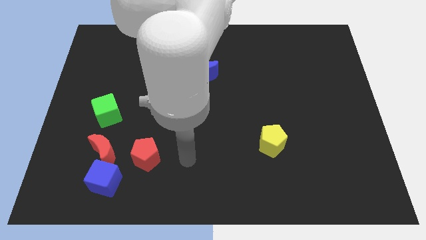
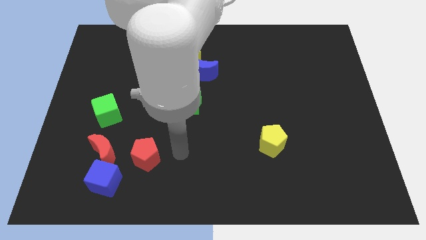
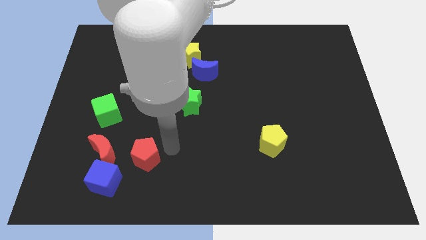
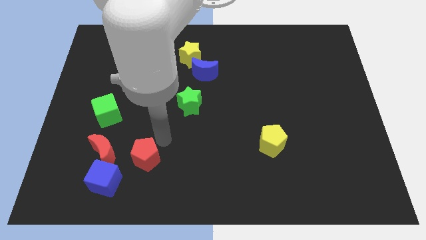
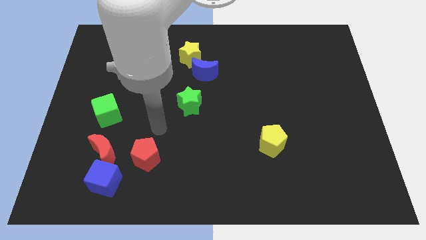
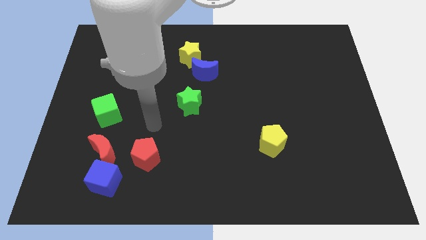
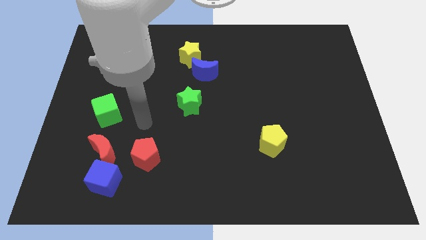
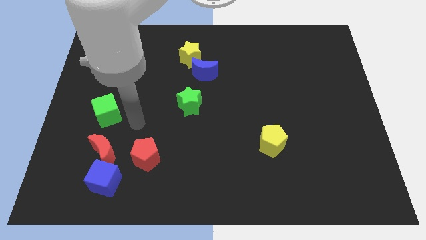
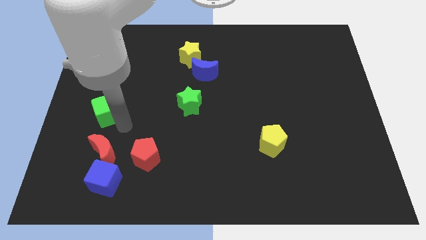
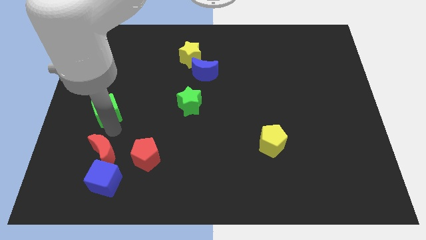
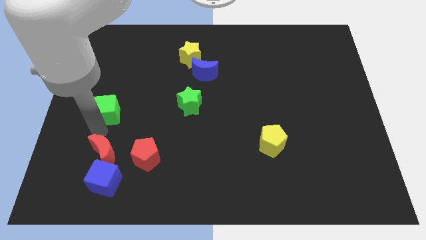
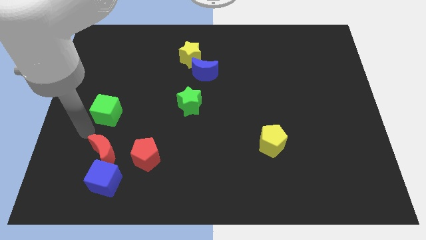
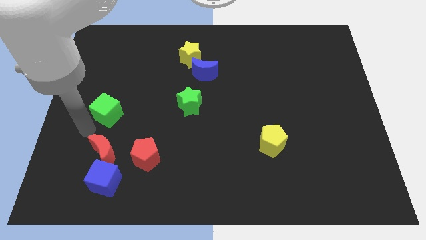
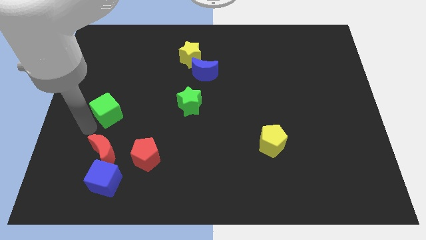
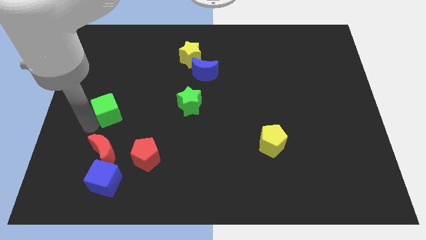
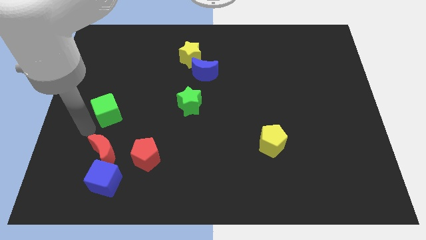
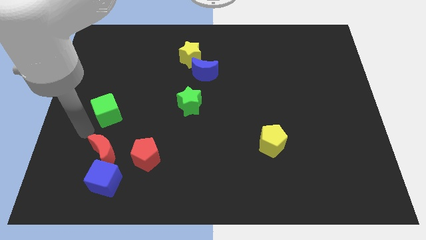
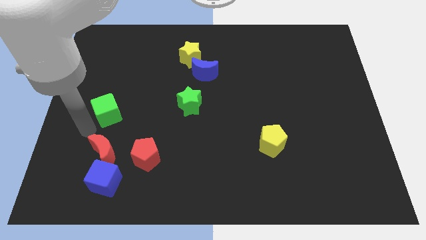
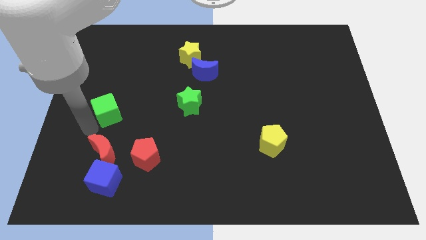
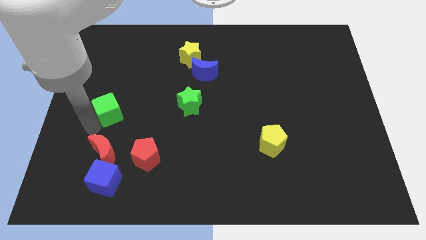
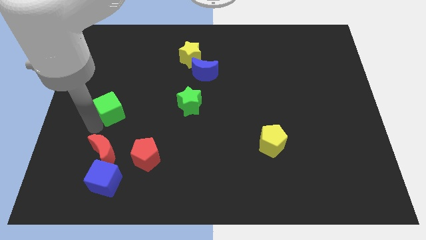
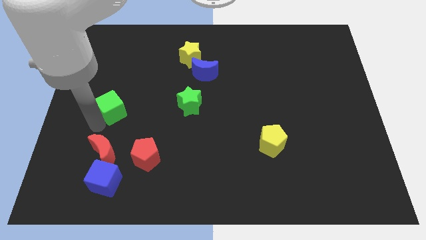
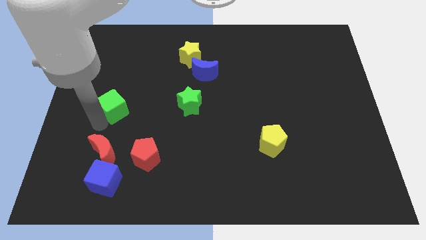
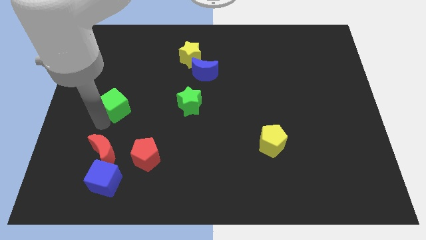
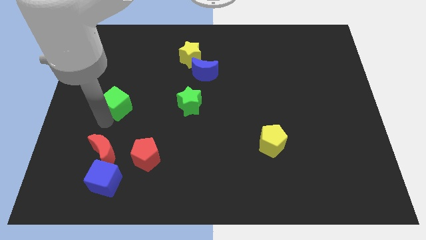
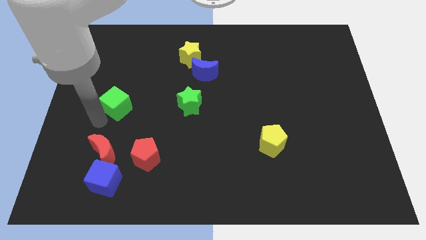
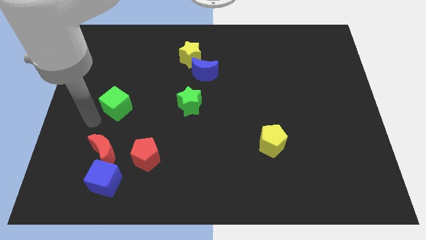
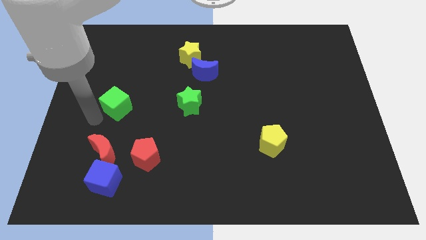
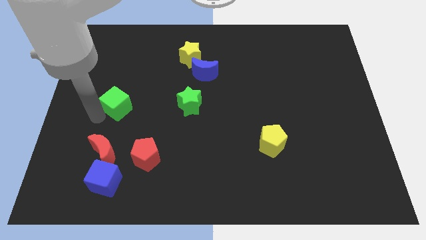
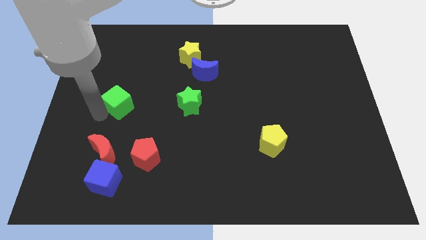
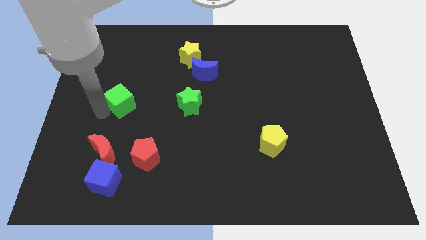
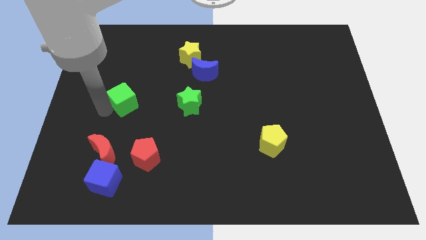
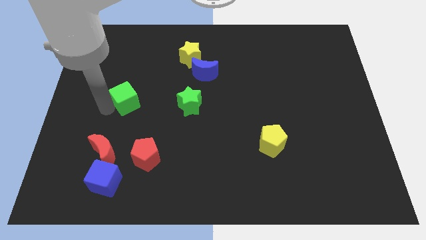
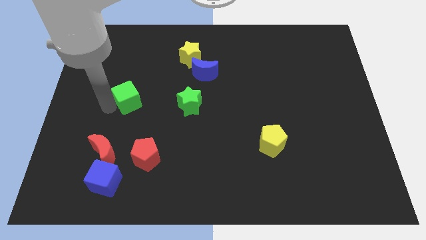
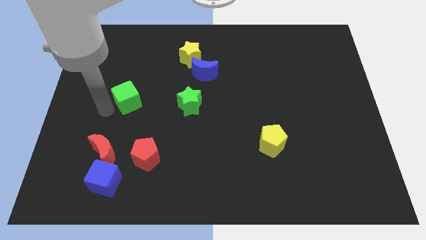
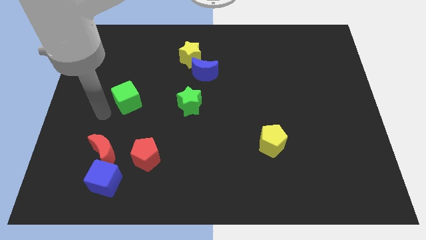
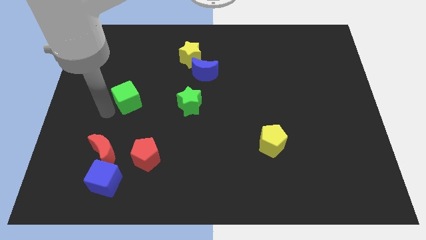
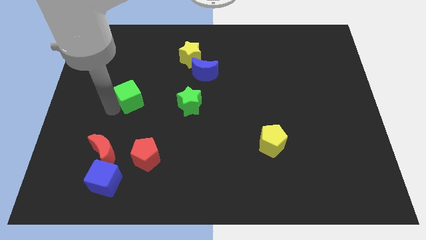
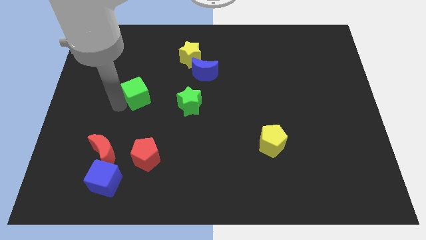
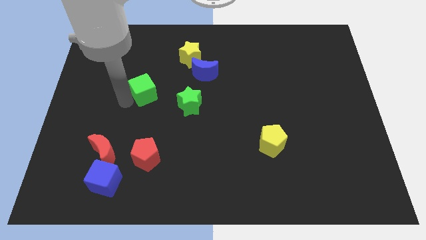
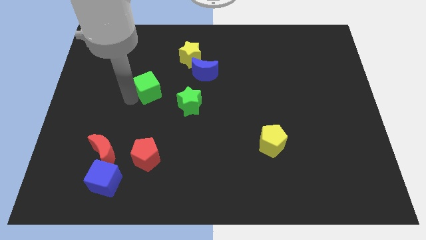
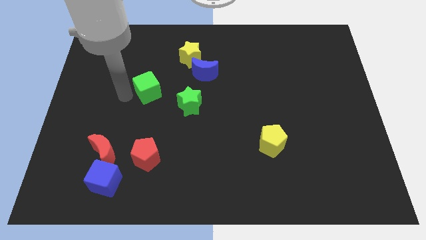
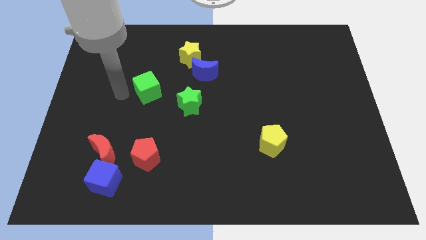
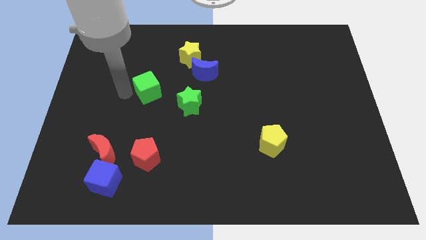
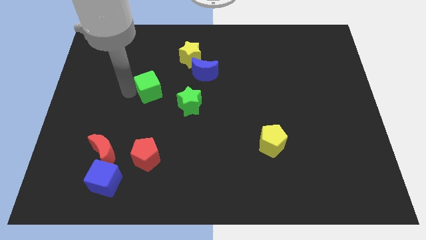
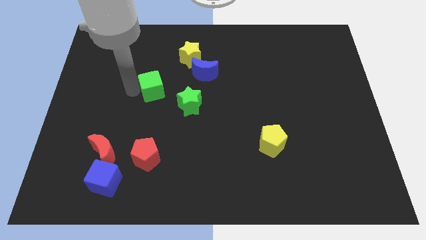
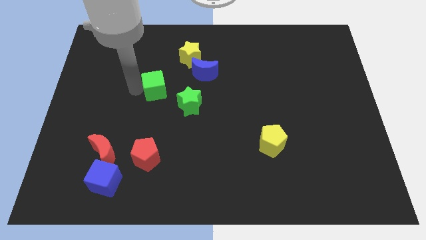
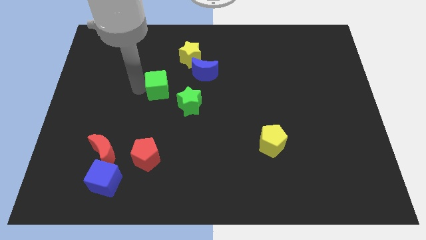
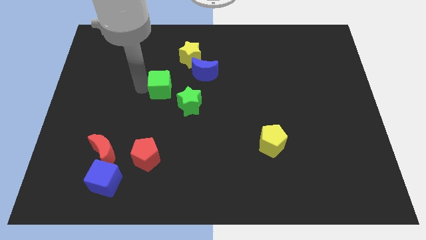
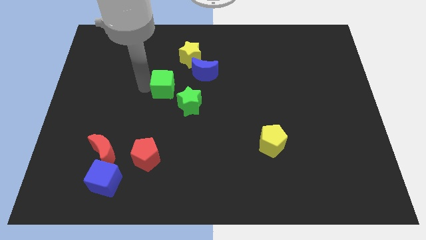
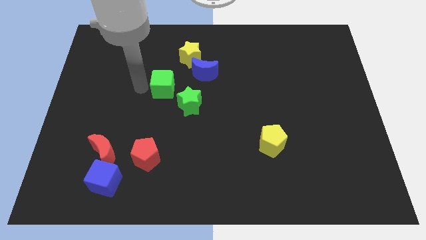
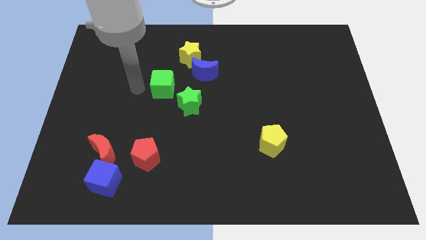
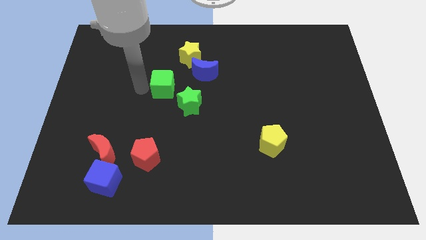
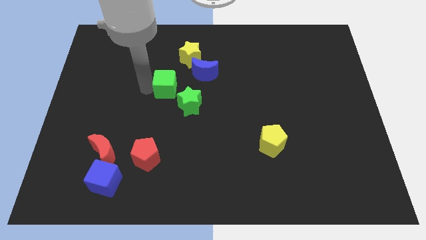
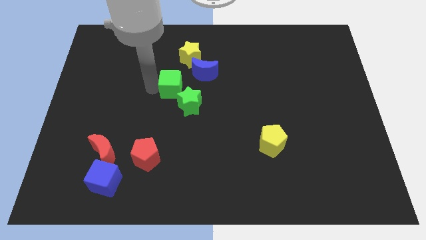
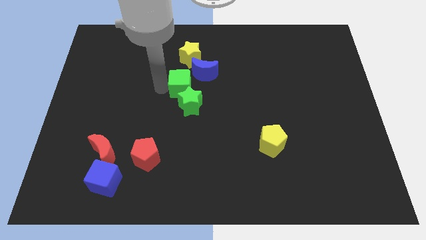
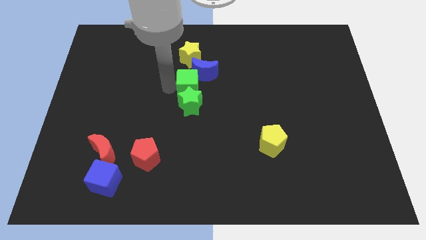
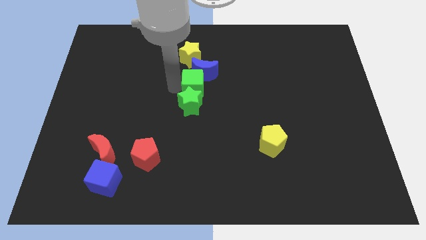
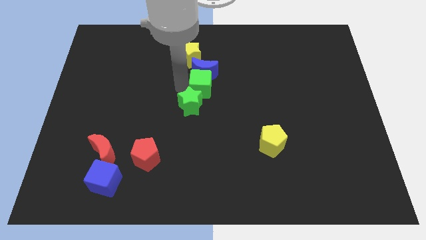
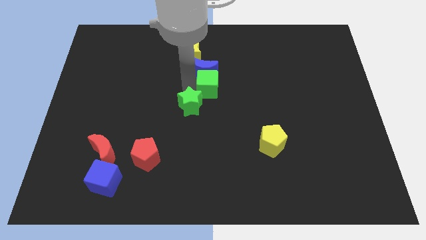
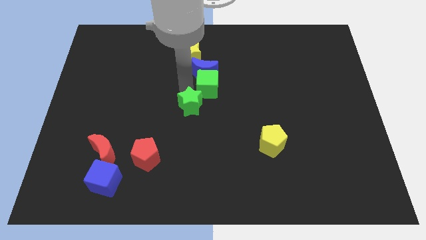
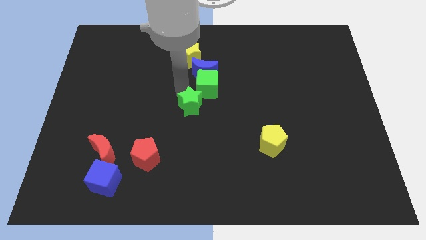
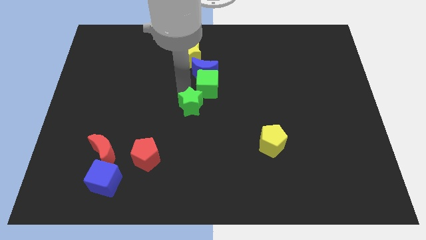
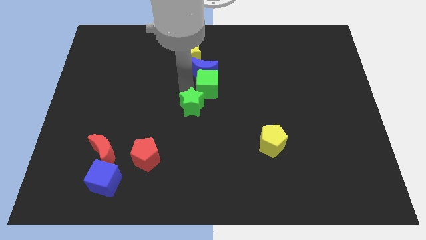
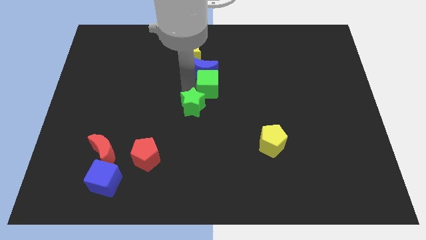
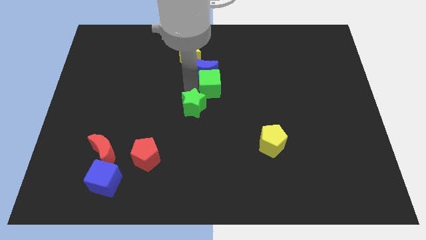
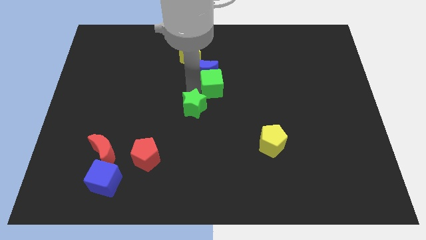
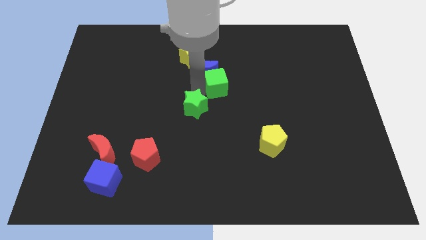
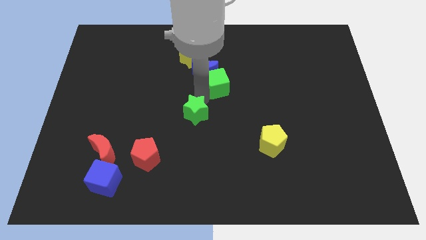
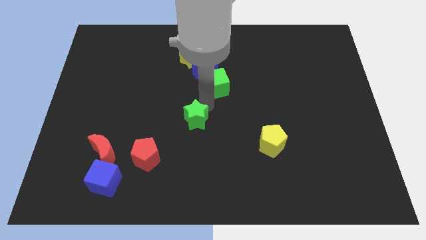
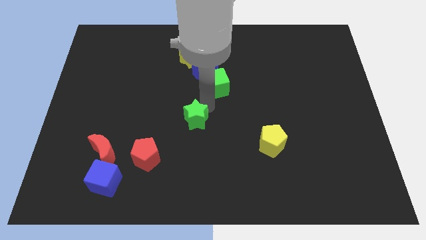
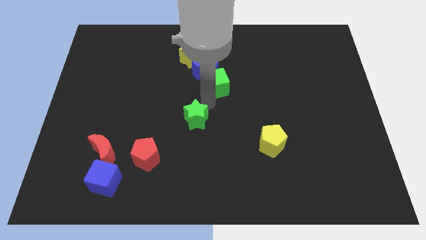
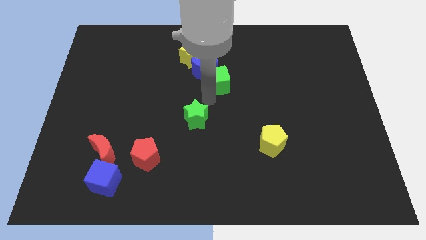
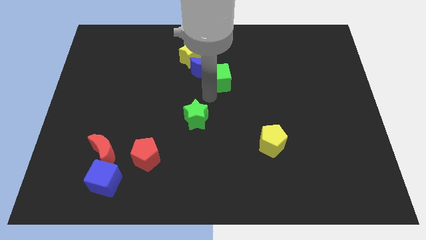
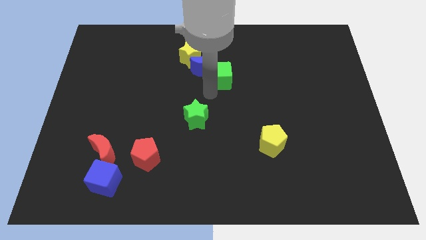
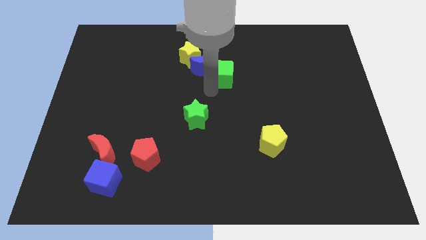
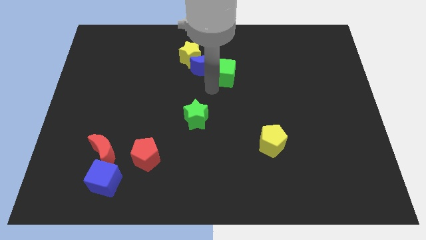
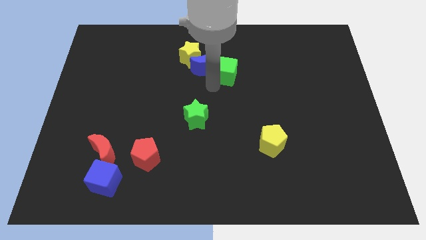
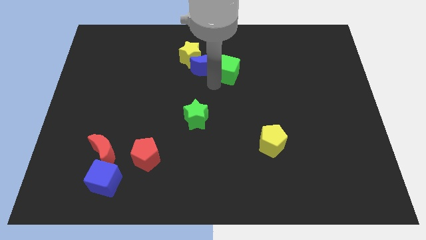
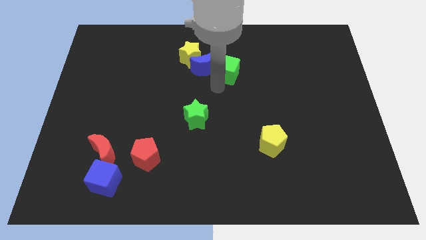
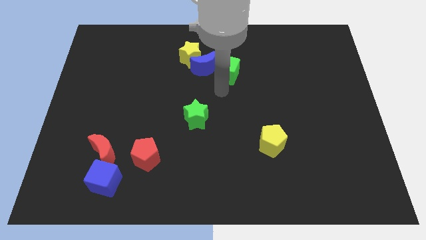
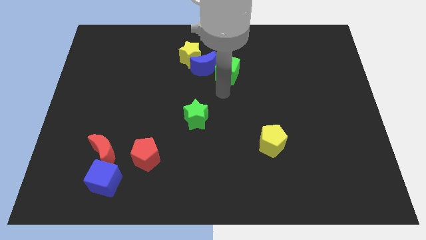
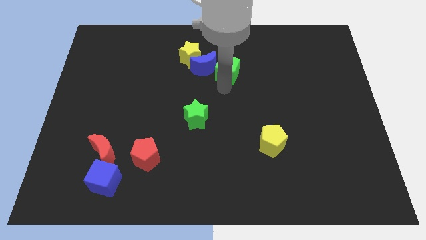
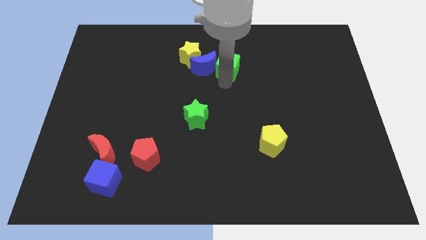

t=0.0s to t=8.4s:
move the green cube just right of the yellow star
